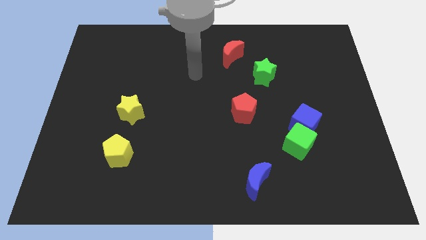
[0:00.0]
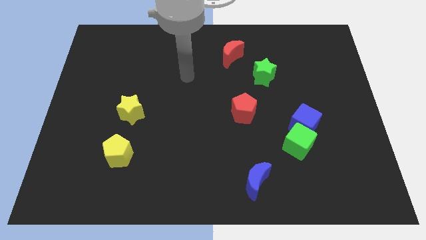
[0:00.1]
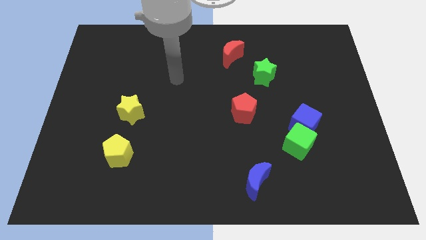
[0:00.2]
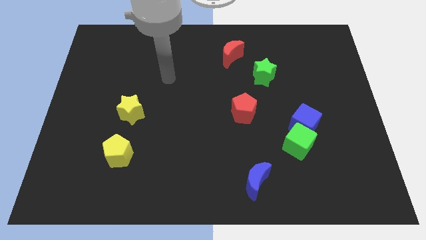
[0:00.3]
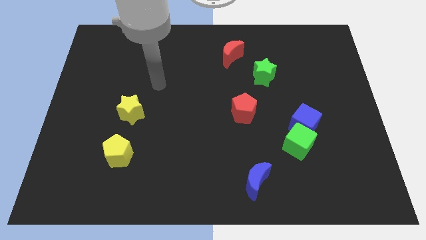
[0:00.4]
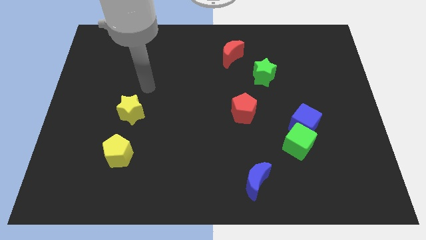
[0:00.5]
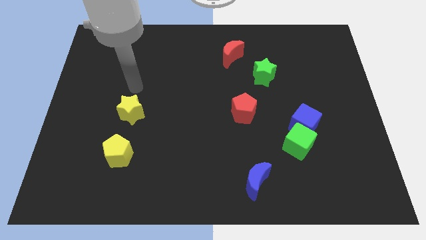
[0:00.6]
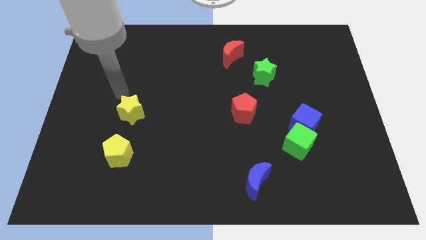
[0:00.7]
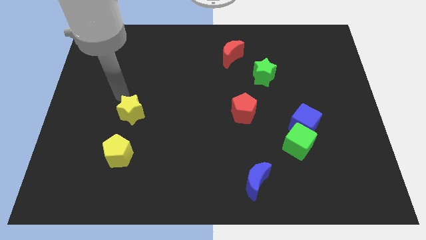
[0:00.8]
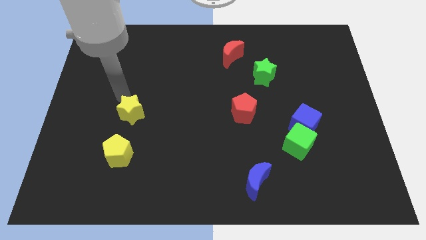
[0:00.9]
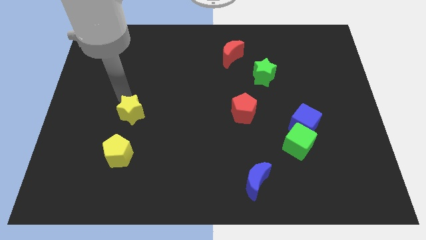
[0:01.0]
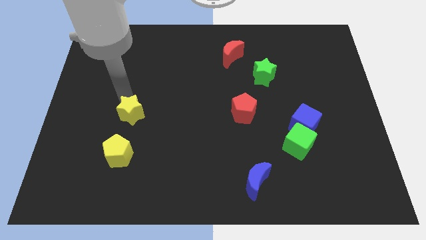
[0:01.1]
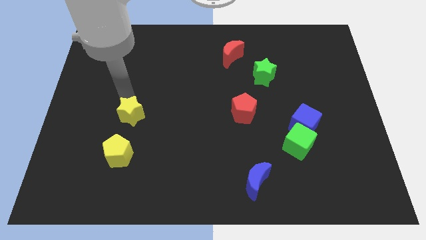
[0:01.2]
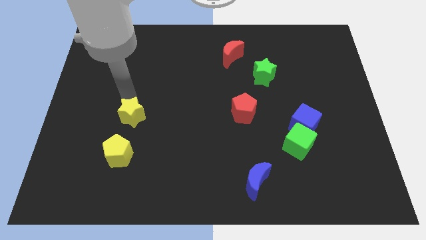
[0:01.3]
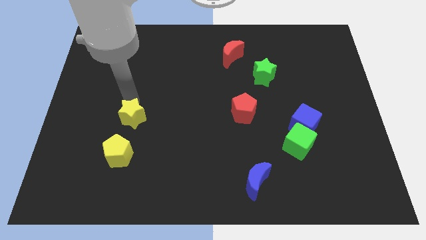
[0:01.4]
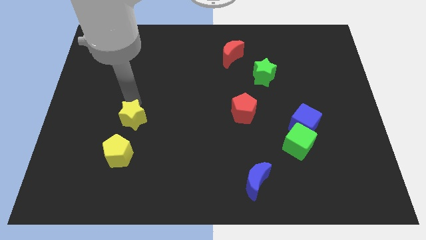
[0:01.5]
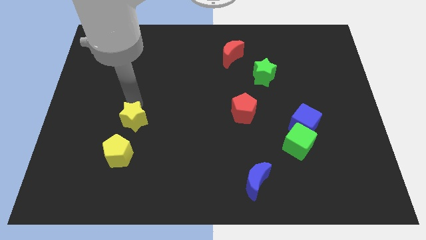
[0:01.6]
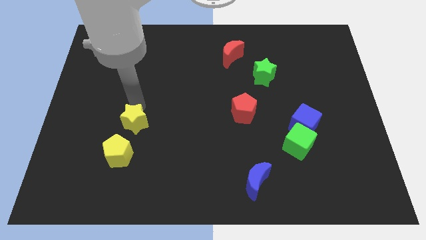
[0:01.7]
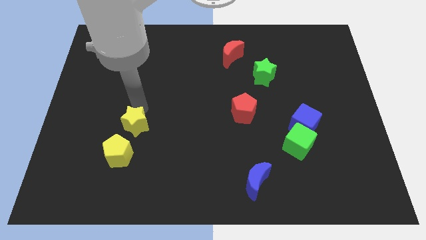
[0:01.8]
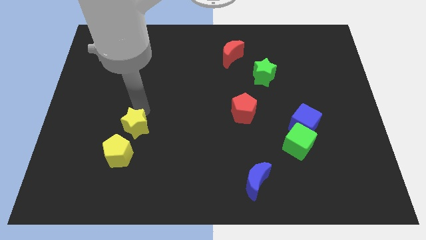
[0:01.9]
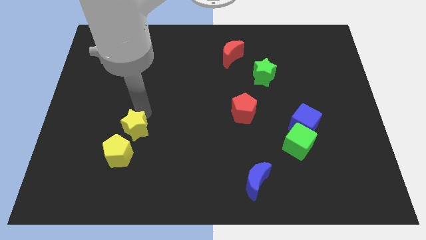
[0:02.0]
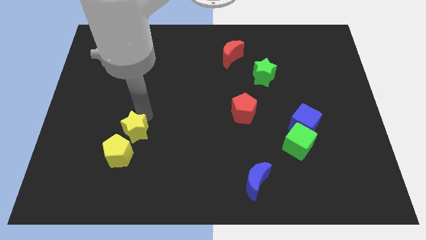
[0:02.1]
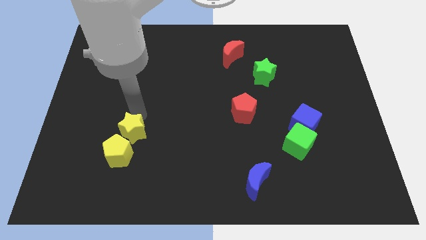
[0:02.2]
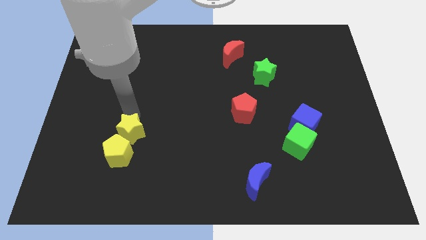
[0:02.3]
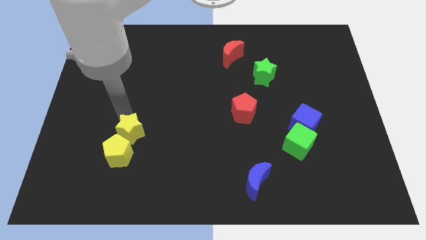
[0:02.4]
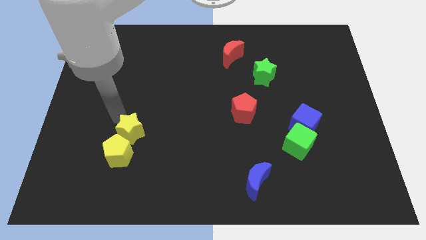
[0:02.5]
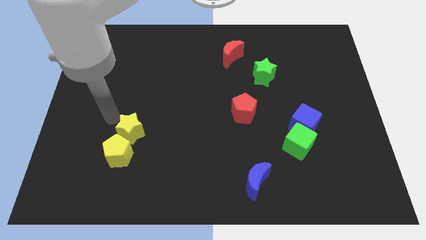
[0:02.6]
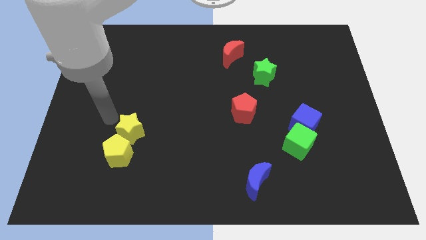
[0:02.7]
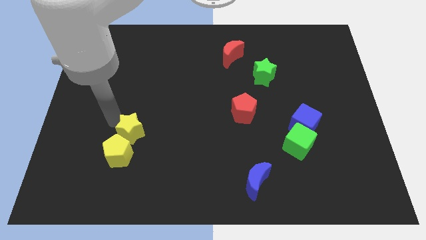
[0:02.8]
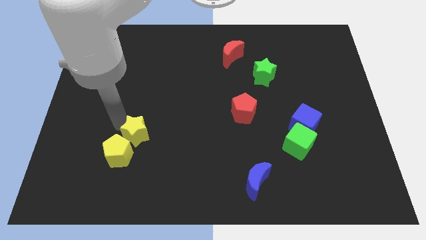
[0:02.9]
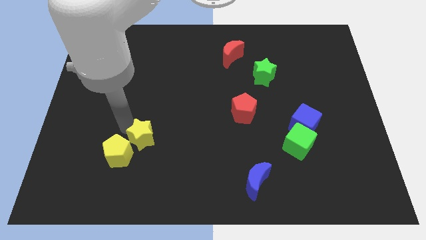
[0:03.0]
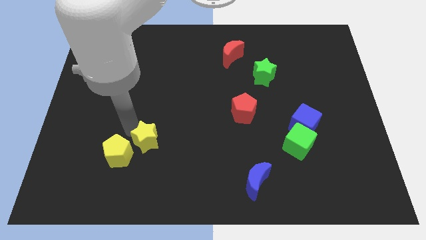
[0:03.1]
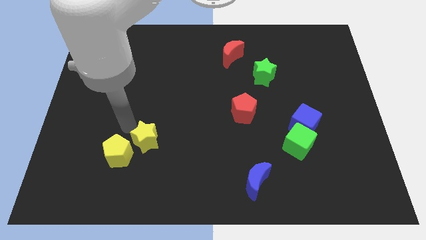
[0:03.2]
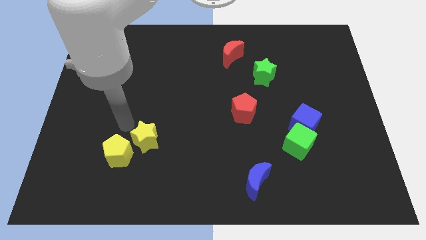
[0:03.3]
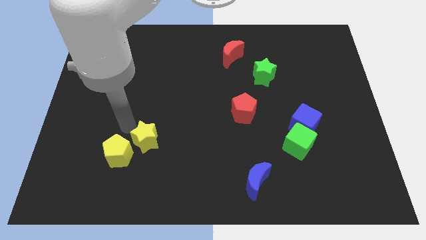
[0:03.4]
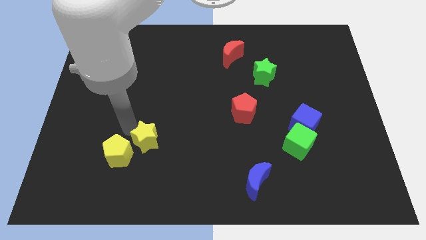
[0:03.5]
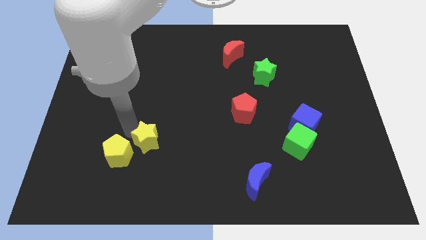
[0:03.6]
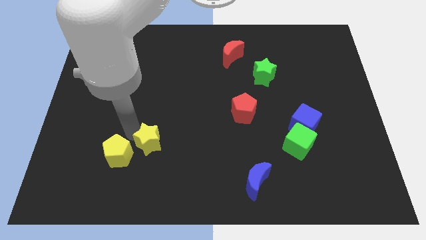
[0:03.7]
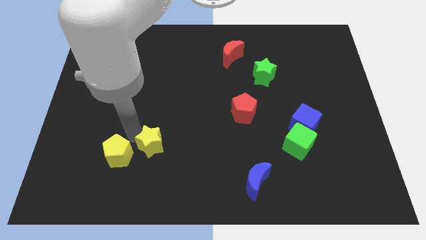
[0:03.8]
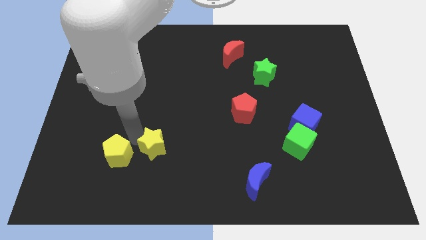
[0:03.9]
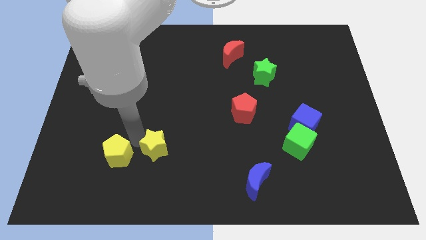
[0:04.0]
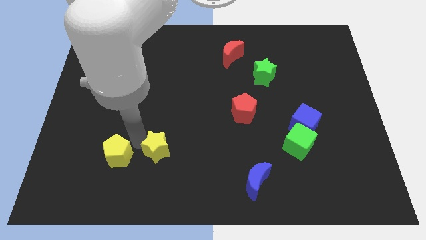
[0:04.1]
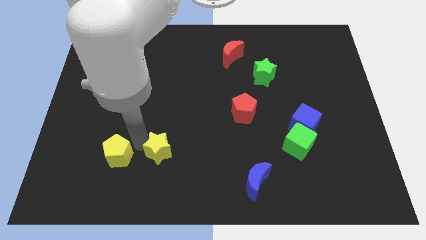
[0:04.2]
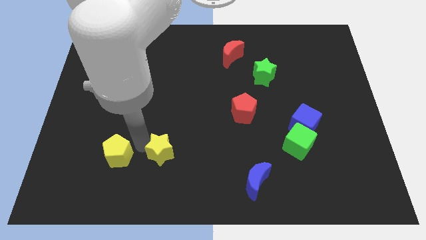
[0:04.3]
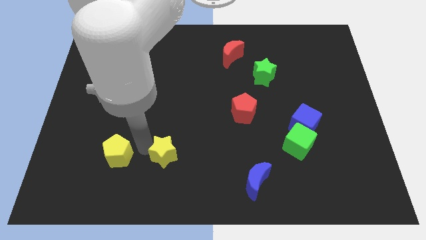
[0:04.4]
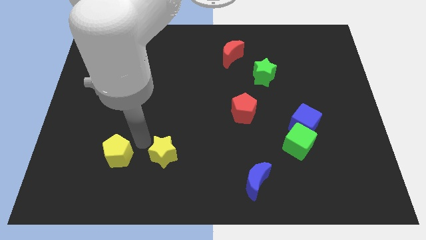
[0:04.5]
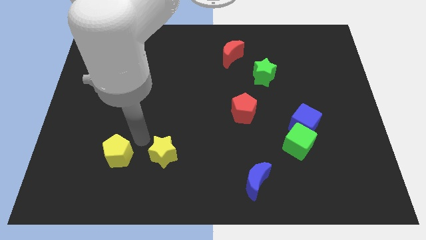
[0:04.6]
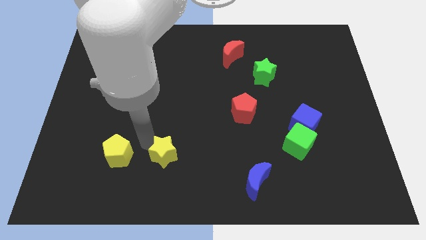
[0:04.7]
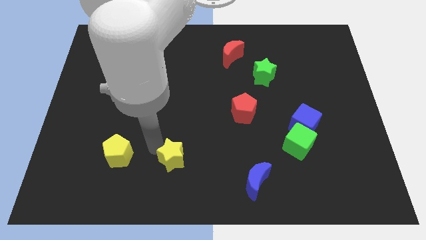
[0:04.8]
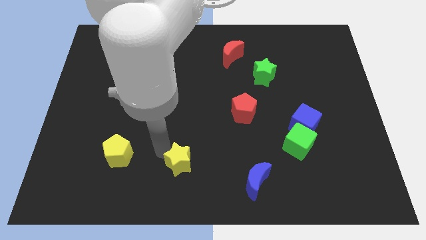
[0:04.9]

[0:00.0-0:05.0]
push the yellow star to the bottom side

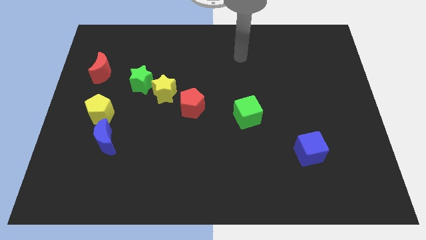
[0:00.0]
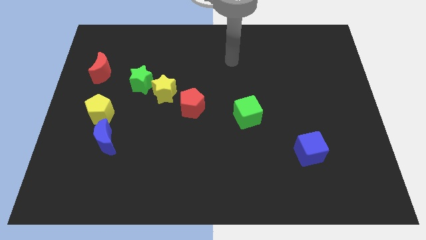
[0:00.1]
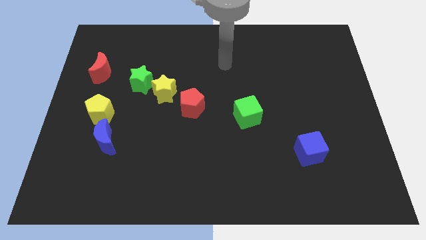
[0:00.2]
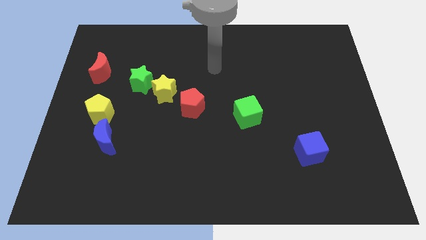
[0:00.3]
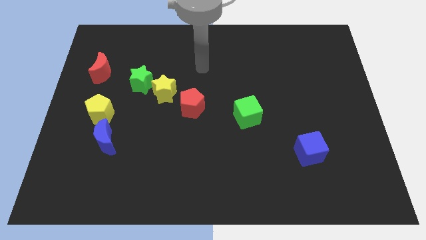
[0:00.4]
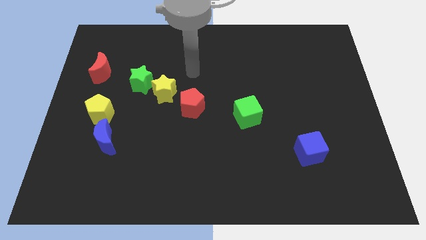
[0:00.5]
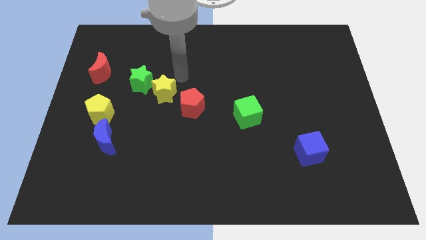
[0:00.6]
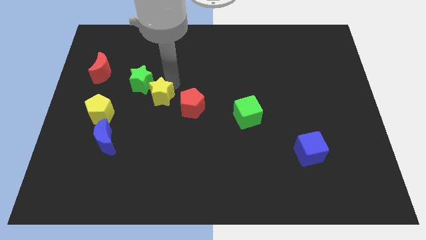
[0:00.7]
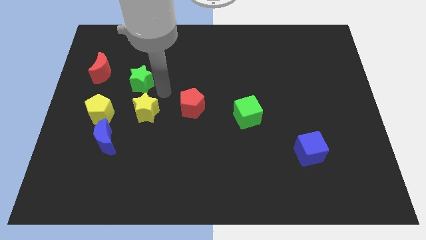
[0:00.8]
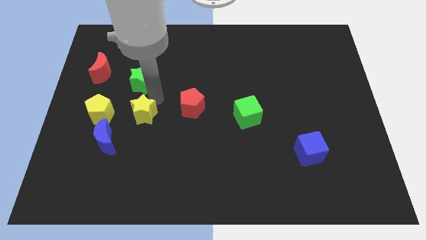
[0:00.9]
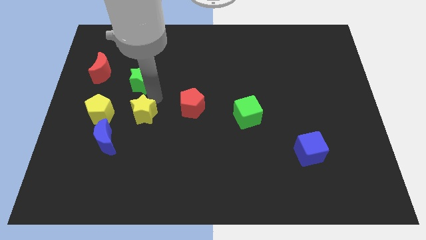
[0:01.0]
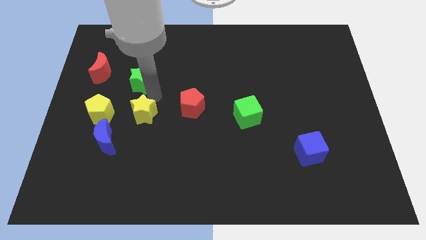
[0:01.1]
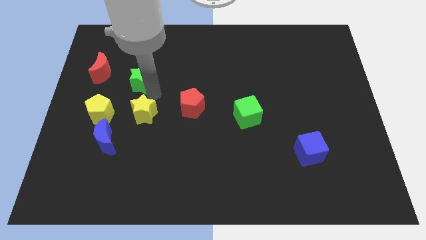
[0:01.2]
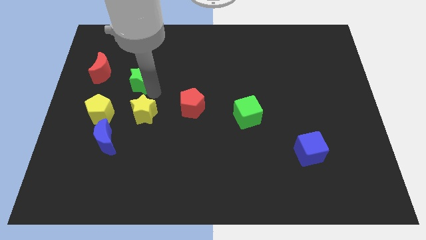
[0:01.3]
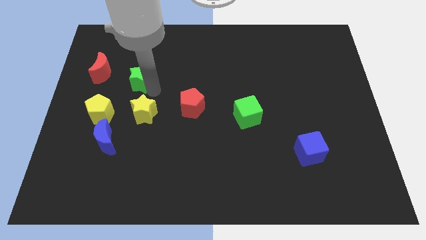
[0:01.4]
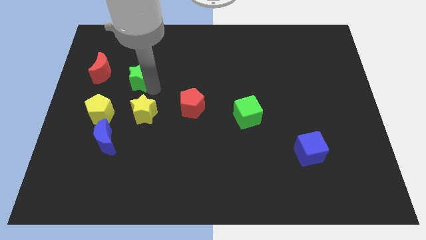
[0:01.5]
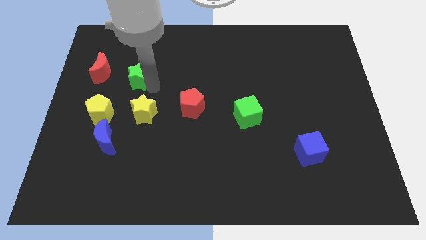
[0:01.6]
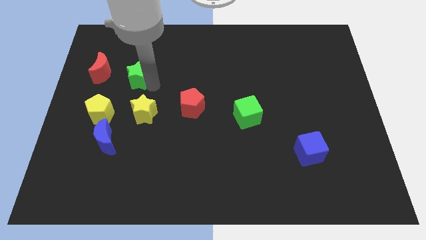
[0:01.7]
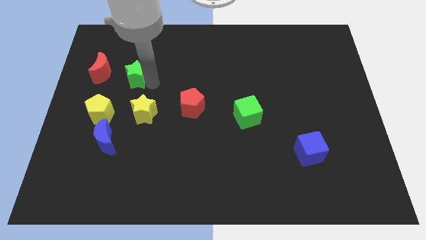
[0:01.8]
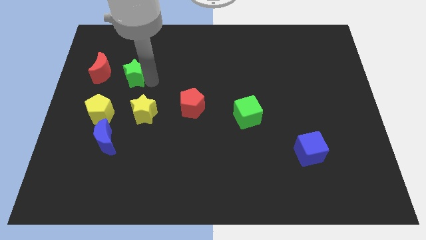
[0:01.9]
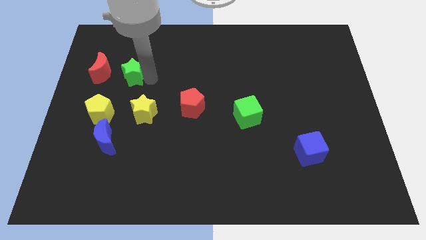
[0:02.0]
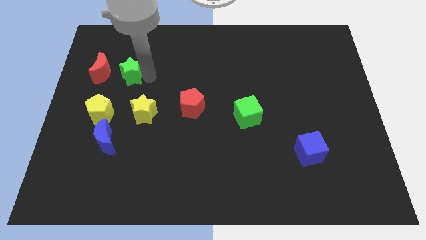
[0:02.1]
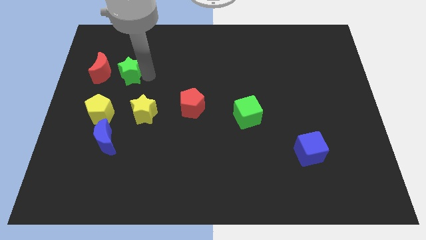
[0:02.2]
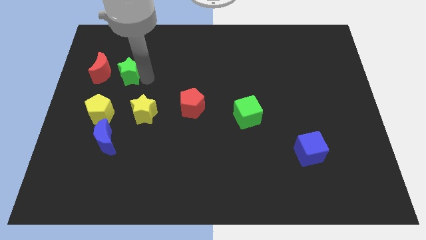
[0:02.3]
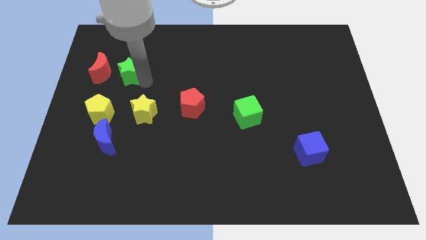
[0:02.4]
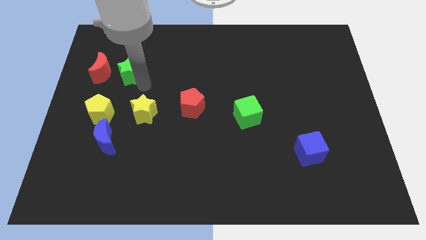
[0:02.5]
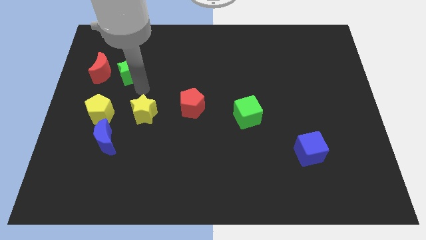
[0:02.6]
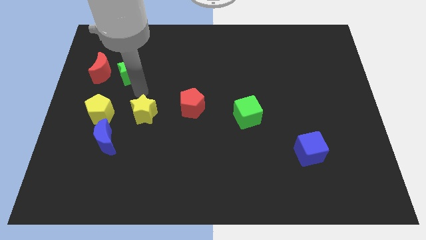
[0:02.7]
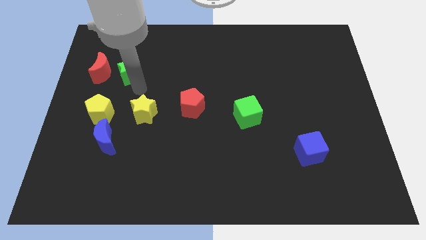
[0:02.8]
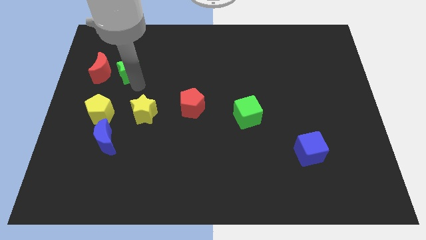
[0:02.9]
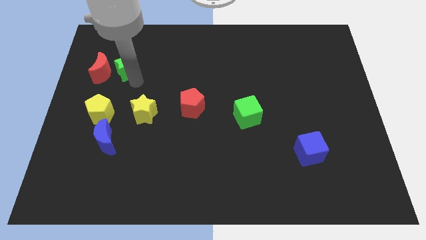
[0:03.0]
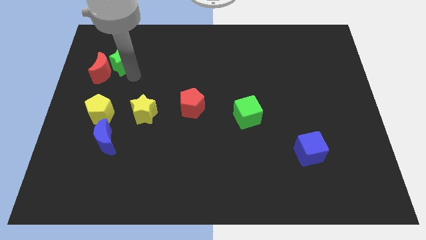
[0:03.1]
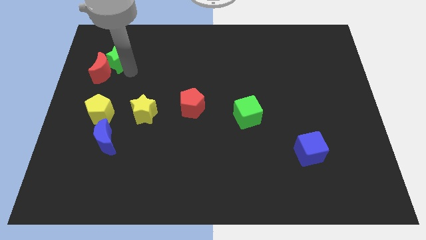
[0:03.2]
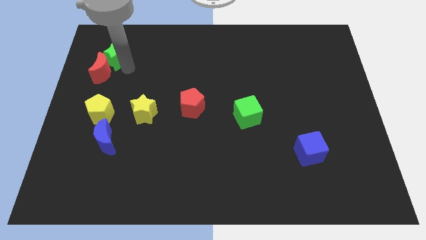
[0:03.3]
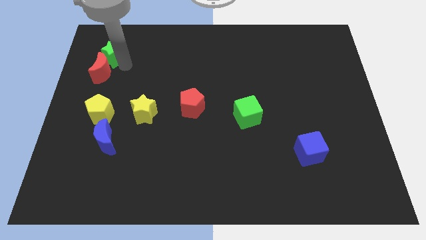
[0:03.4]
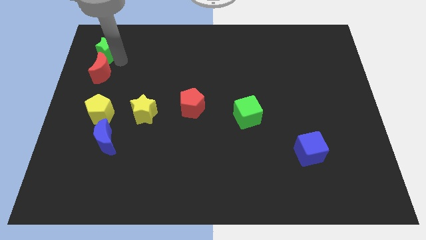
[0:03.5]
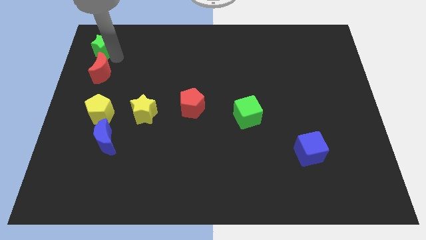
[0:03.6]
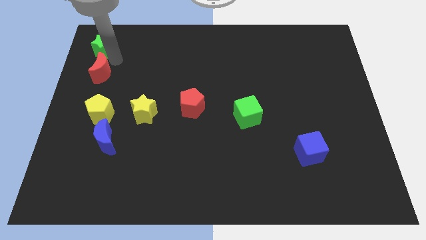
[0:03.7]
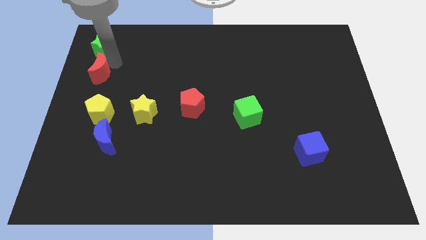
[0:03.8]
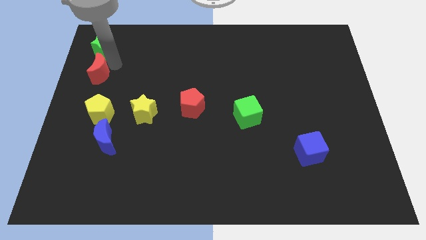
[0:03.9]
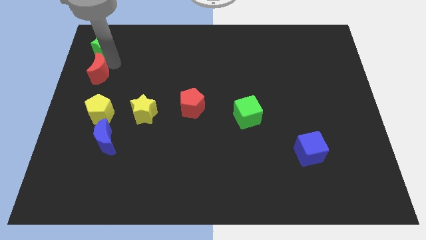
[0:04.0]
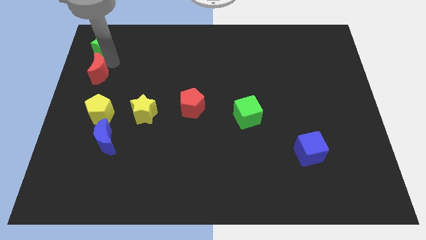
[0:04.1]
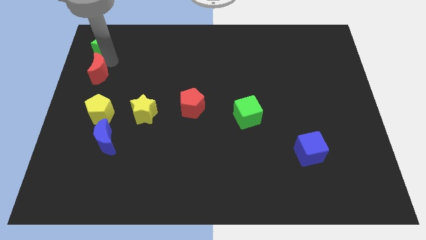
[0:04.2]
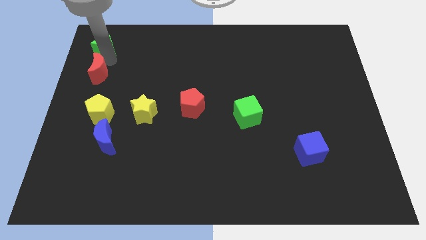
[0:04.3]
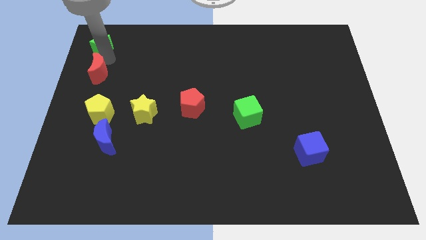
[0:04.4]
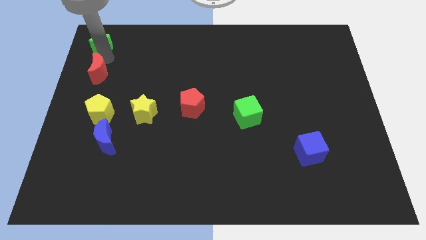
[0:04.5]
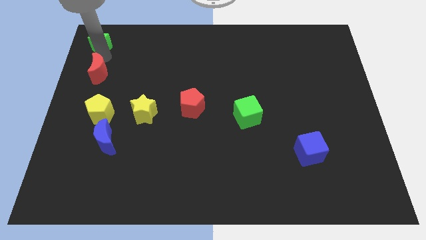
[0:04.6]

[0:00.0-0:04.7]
push the green star to the upper left corner
